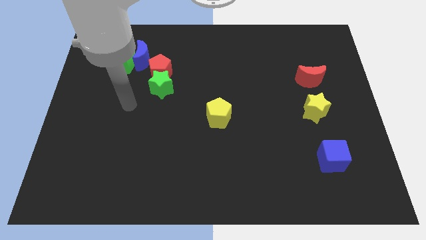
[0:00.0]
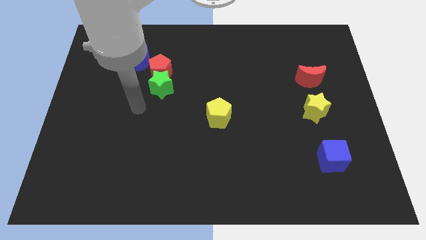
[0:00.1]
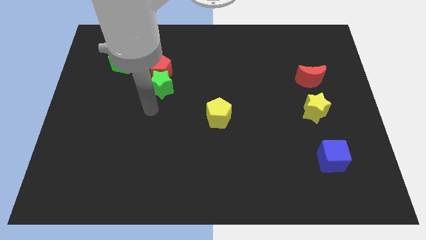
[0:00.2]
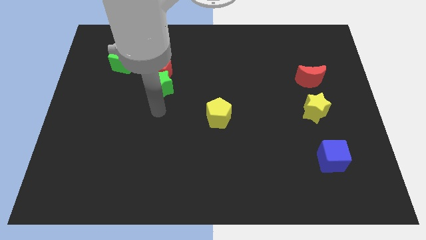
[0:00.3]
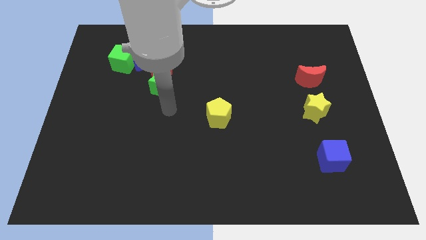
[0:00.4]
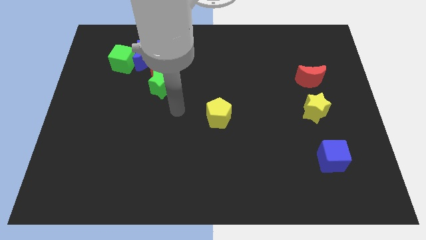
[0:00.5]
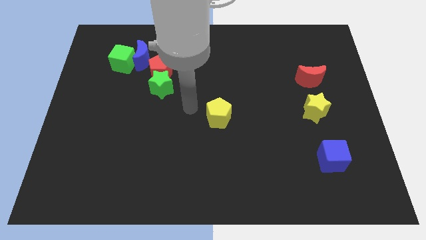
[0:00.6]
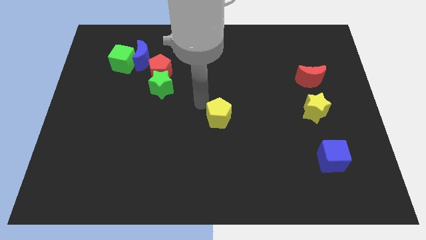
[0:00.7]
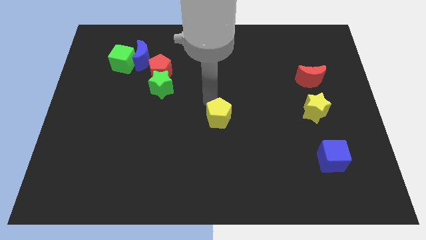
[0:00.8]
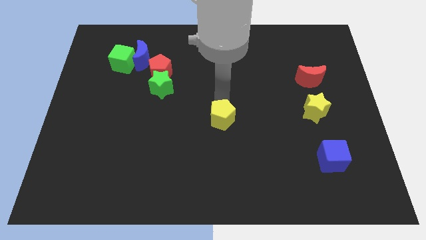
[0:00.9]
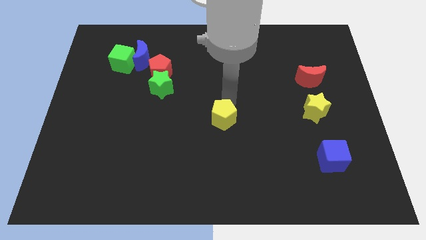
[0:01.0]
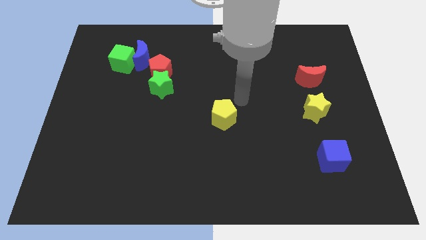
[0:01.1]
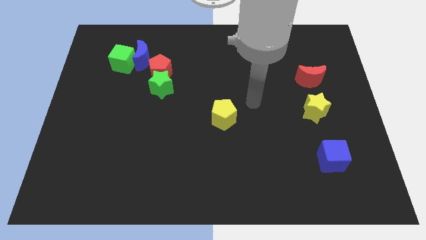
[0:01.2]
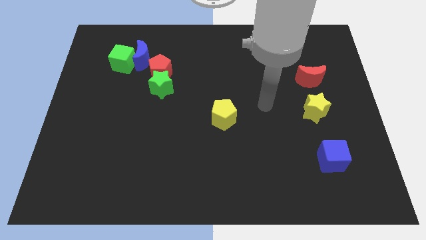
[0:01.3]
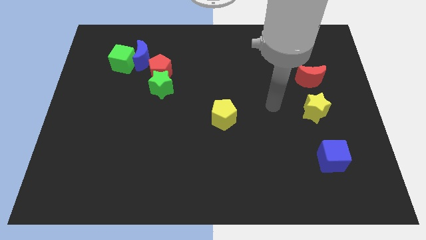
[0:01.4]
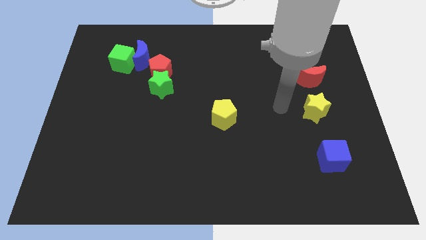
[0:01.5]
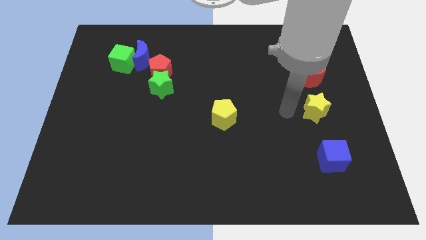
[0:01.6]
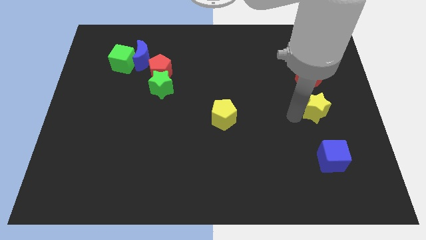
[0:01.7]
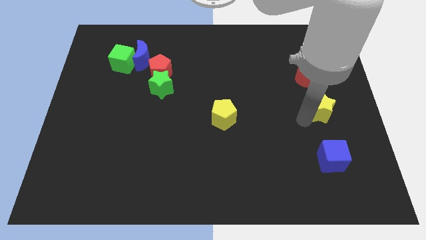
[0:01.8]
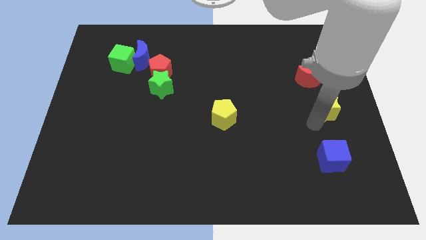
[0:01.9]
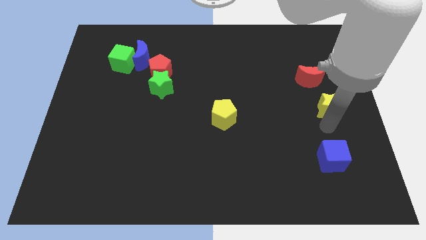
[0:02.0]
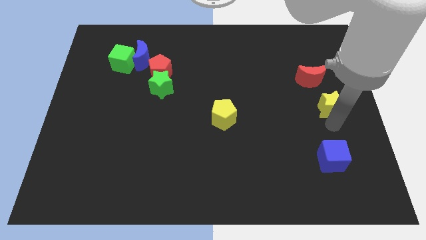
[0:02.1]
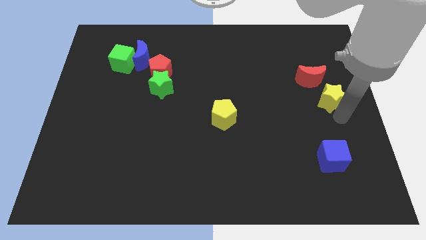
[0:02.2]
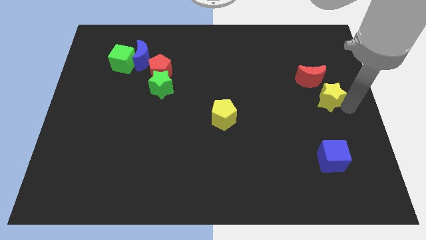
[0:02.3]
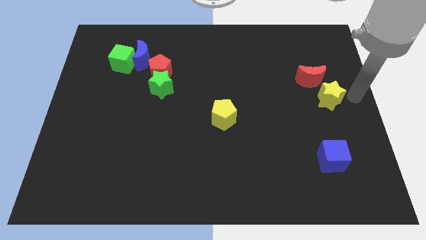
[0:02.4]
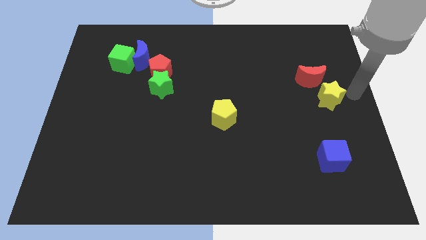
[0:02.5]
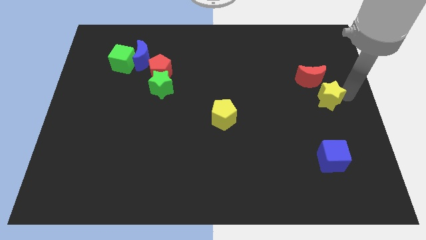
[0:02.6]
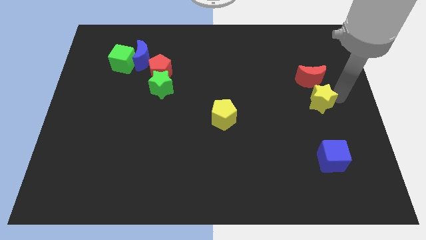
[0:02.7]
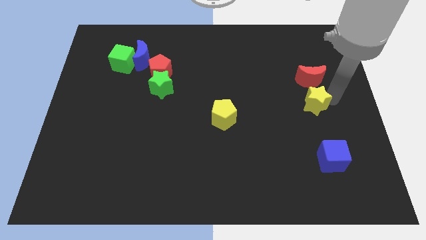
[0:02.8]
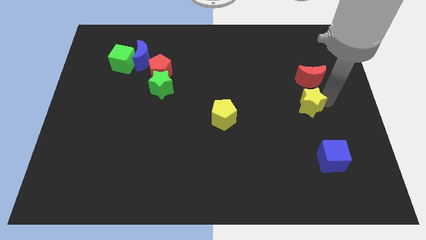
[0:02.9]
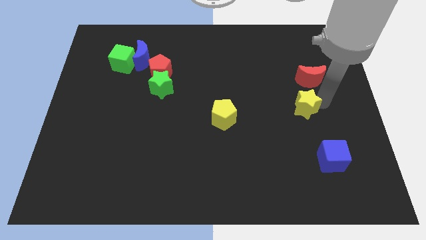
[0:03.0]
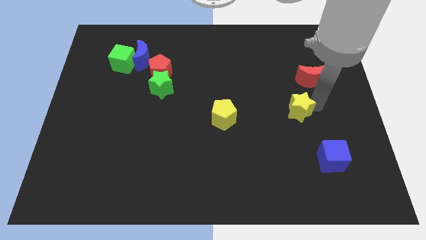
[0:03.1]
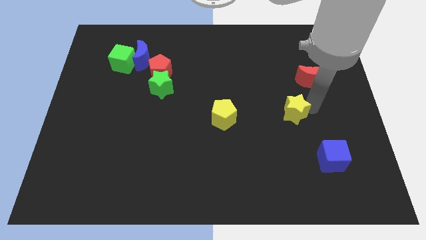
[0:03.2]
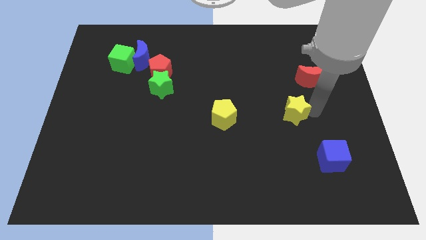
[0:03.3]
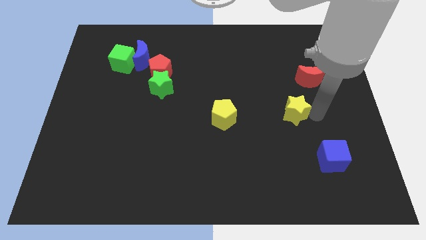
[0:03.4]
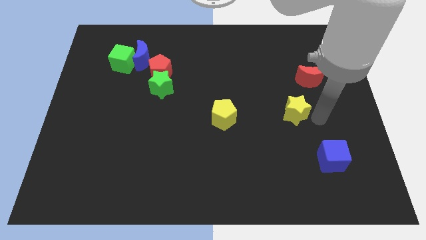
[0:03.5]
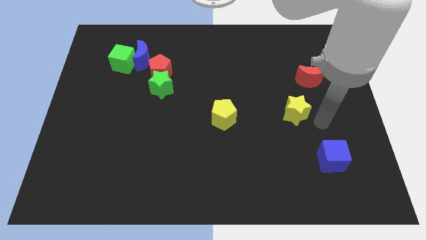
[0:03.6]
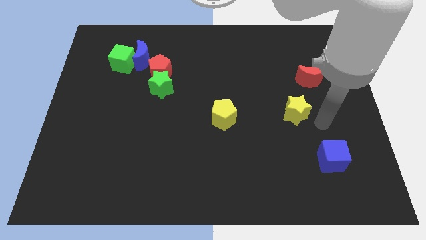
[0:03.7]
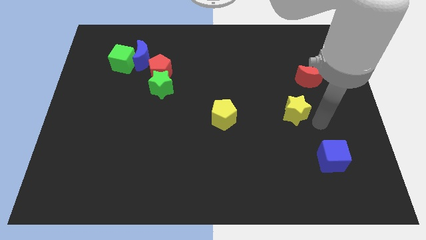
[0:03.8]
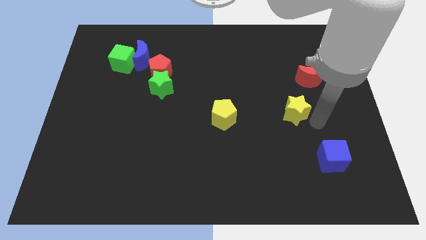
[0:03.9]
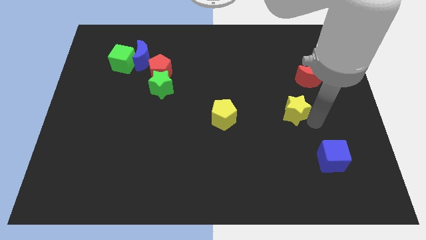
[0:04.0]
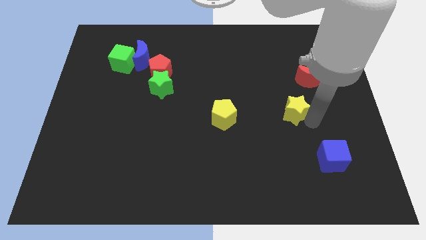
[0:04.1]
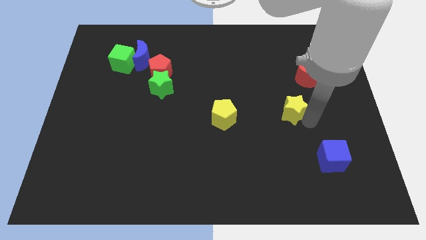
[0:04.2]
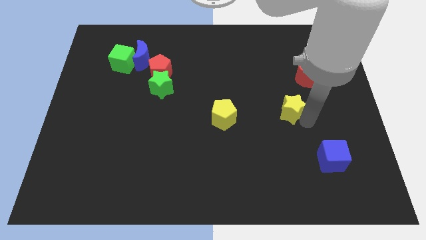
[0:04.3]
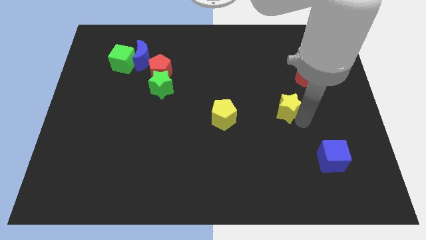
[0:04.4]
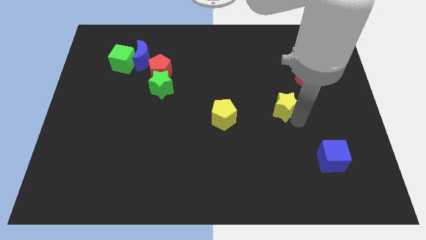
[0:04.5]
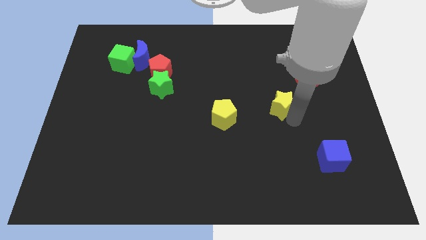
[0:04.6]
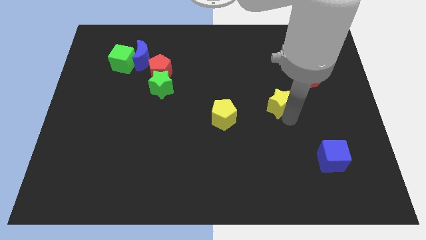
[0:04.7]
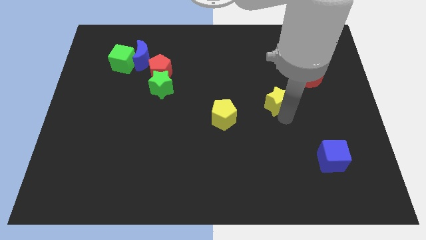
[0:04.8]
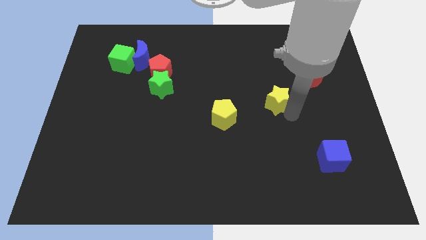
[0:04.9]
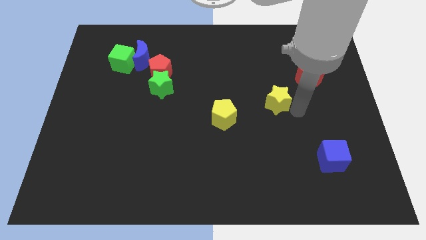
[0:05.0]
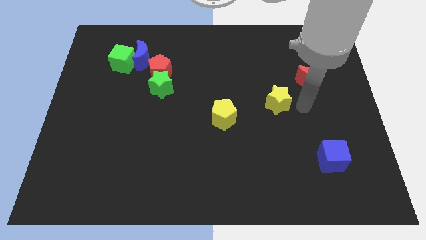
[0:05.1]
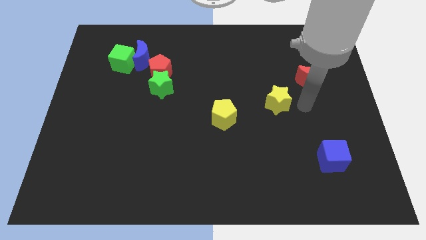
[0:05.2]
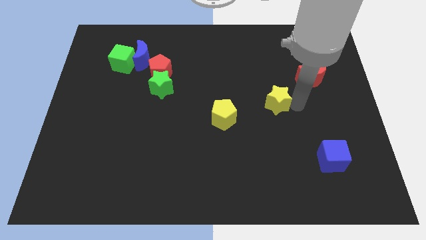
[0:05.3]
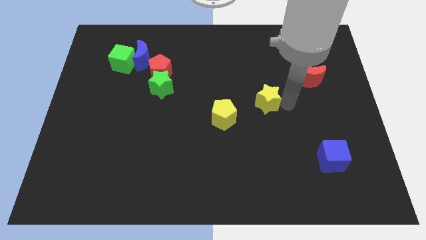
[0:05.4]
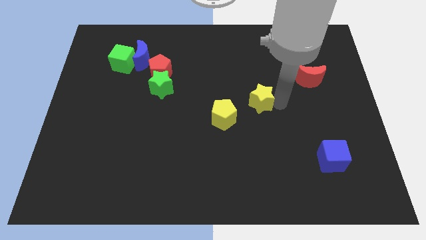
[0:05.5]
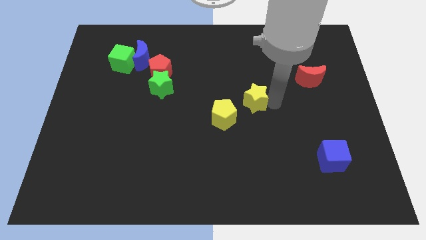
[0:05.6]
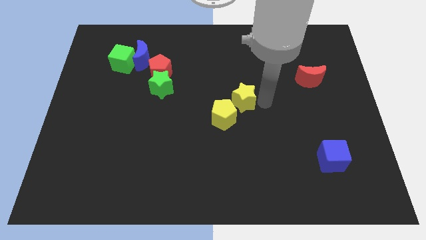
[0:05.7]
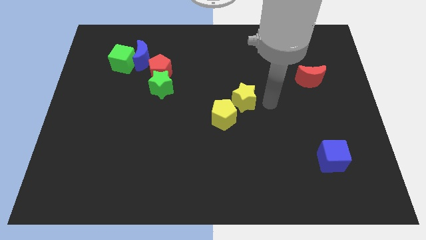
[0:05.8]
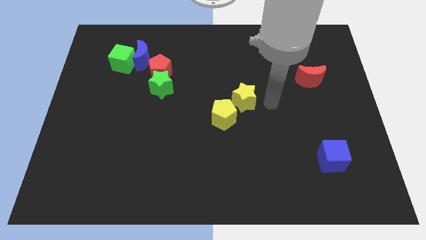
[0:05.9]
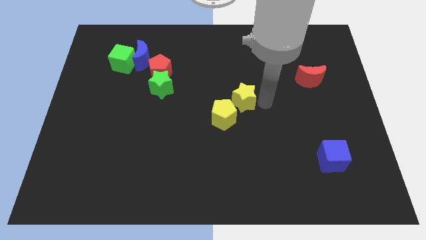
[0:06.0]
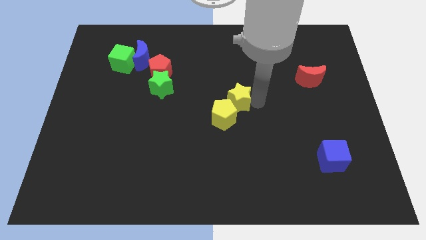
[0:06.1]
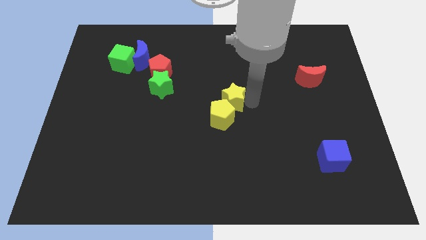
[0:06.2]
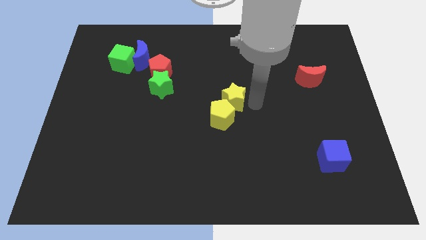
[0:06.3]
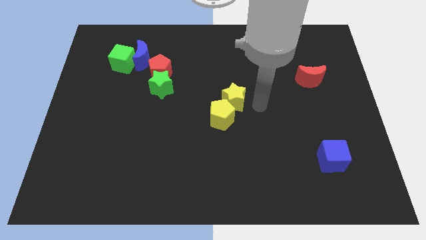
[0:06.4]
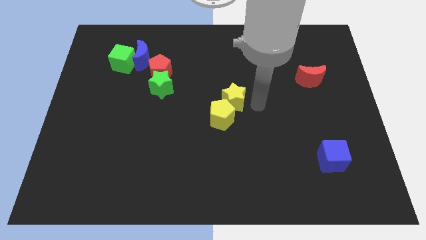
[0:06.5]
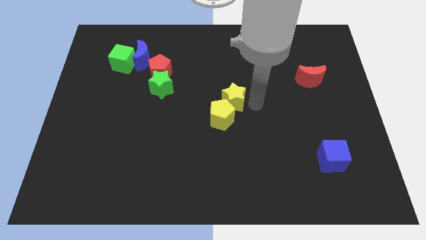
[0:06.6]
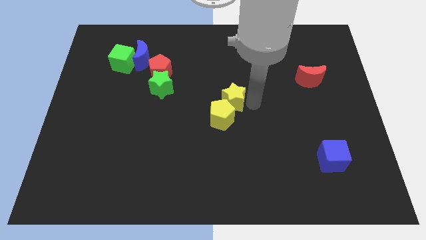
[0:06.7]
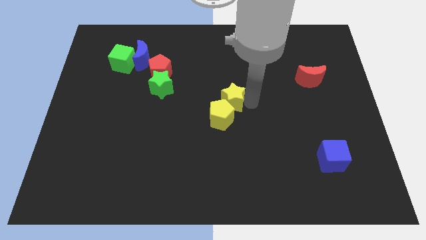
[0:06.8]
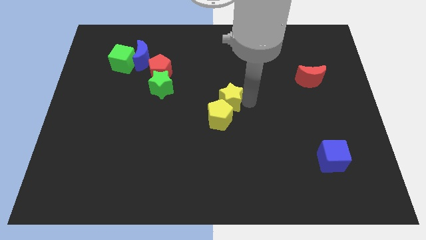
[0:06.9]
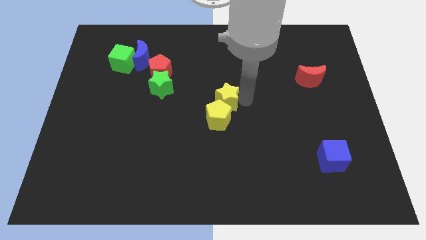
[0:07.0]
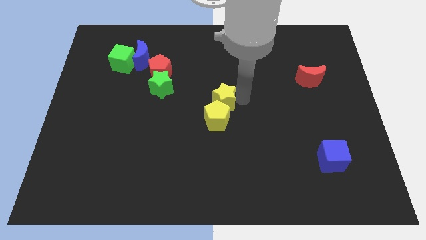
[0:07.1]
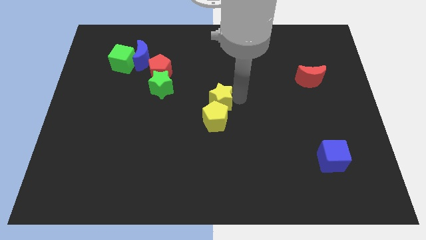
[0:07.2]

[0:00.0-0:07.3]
push the yellow star to the top left of the yellow pentagon

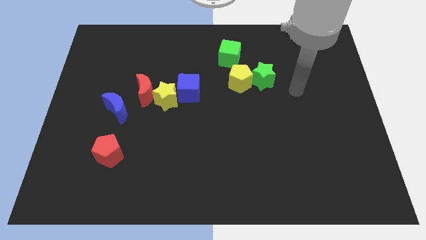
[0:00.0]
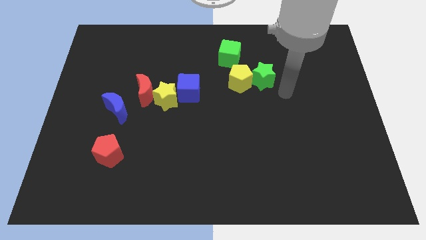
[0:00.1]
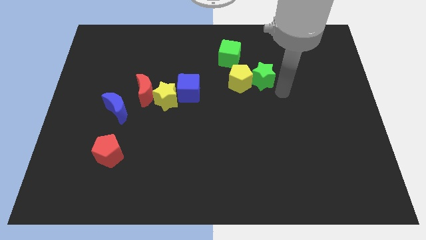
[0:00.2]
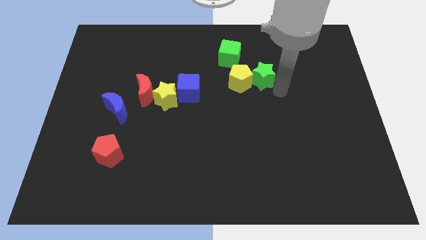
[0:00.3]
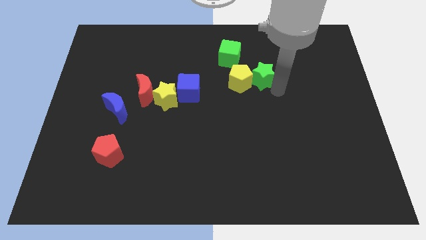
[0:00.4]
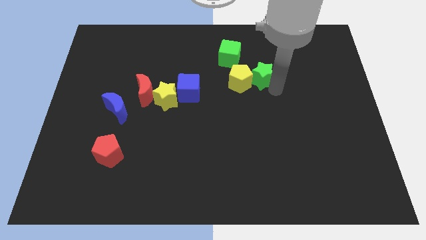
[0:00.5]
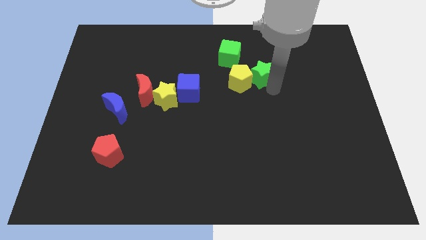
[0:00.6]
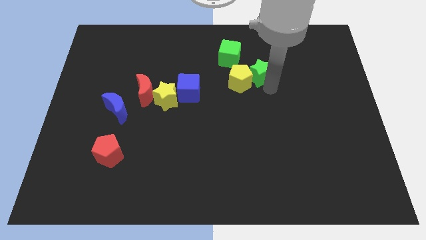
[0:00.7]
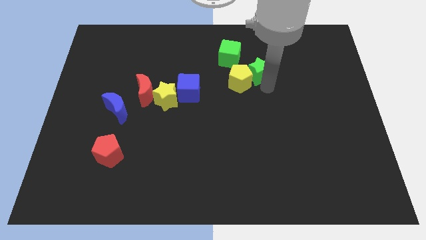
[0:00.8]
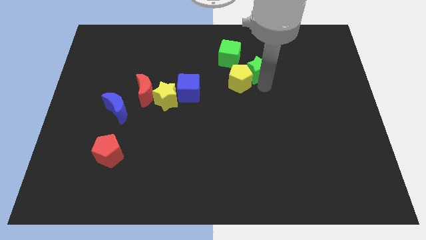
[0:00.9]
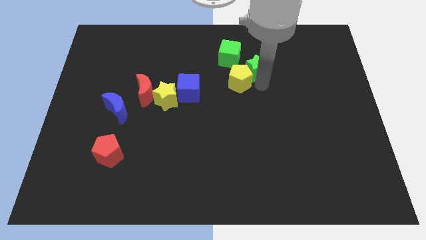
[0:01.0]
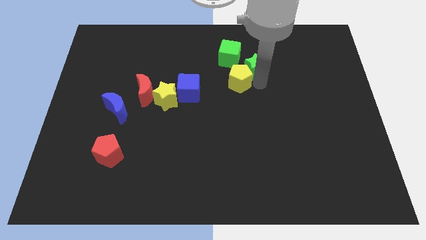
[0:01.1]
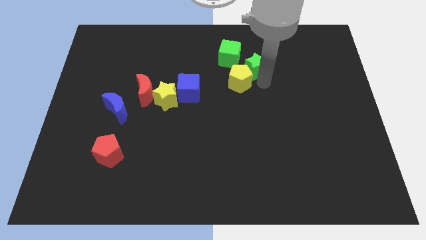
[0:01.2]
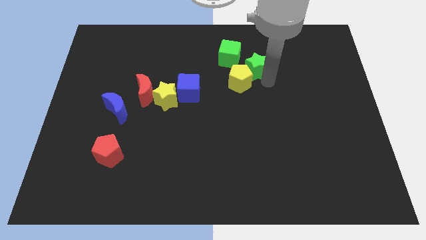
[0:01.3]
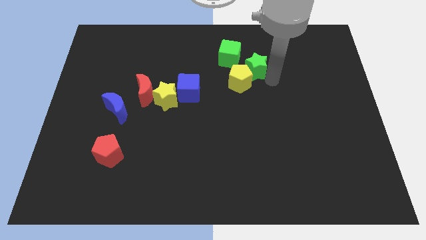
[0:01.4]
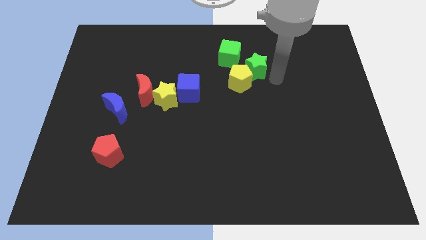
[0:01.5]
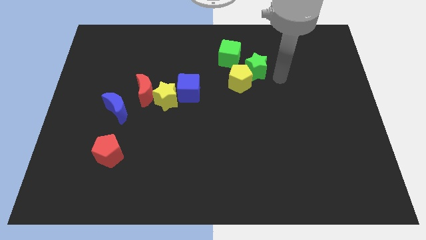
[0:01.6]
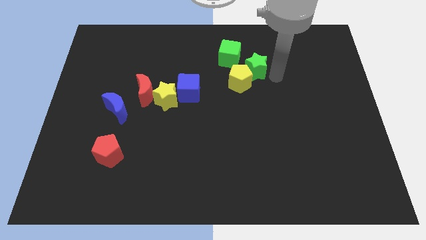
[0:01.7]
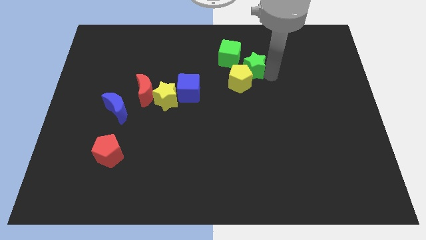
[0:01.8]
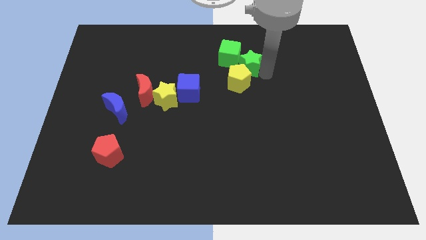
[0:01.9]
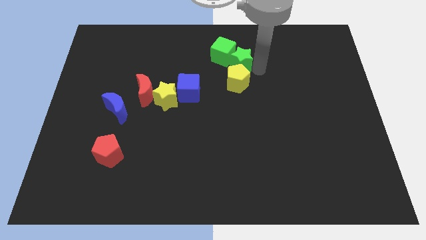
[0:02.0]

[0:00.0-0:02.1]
slide the green star to the top left of the yellow pentagon
